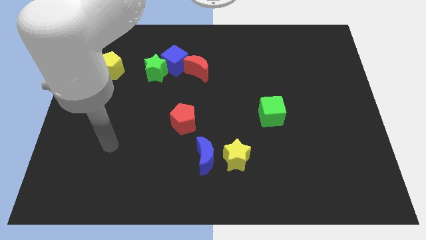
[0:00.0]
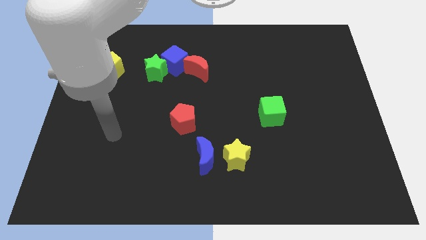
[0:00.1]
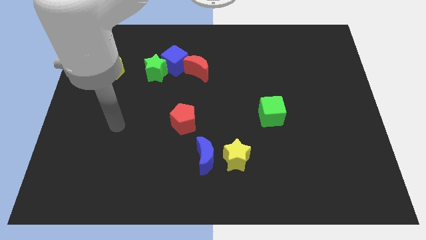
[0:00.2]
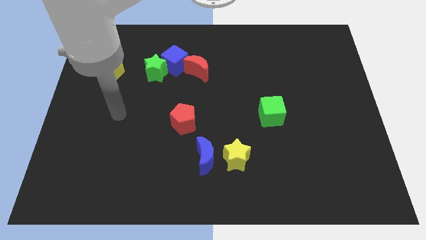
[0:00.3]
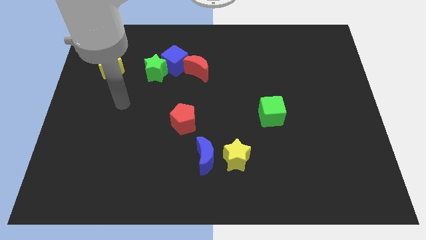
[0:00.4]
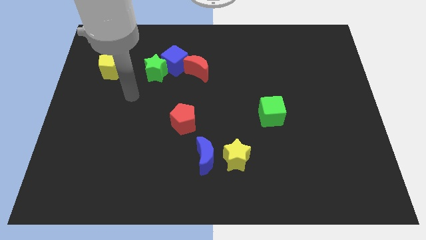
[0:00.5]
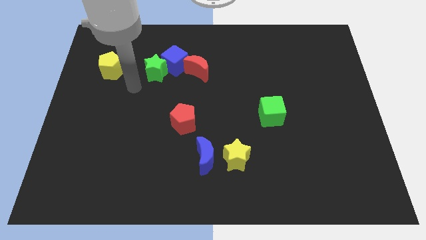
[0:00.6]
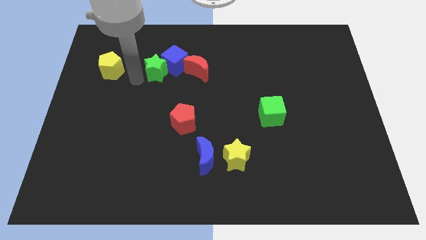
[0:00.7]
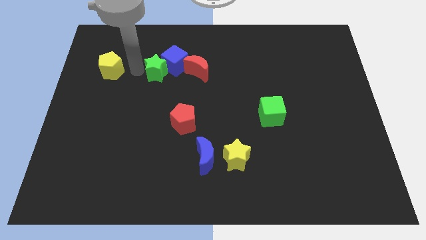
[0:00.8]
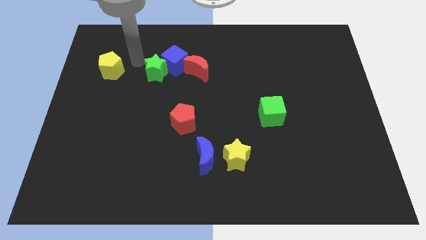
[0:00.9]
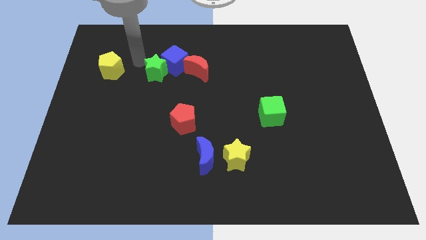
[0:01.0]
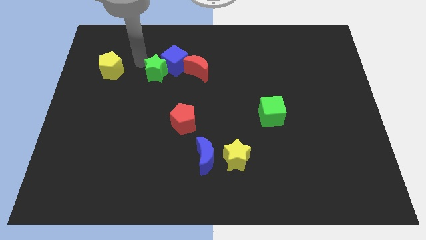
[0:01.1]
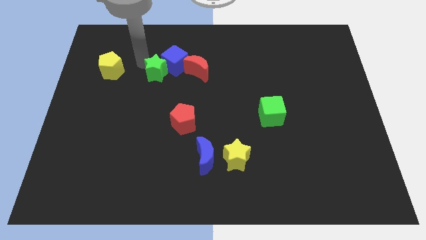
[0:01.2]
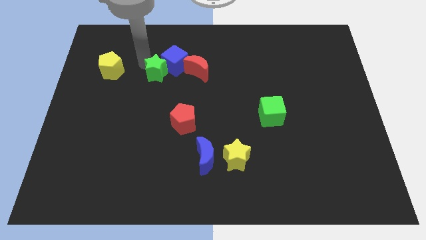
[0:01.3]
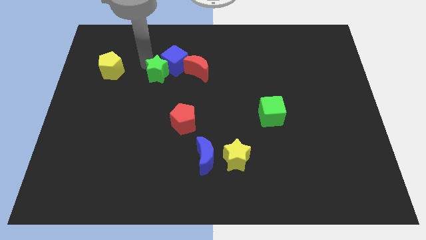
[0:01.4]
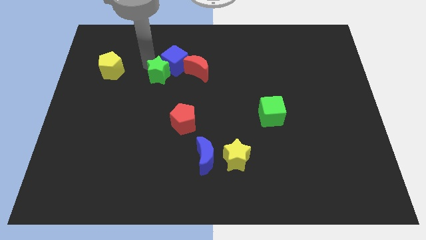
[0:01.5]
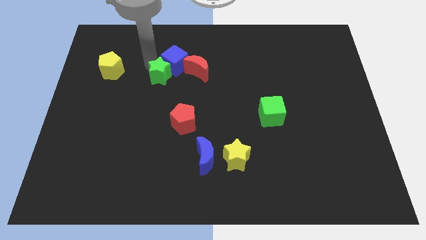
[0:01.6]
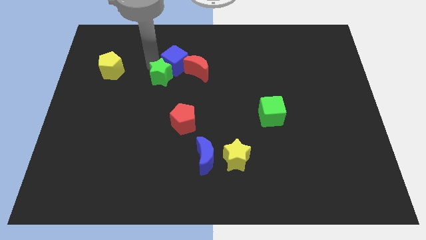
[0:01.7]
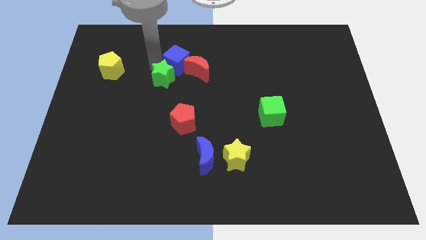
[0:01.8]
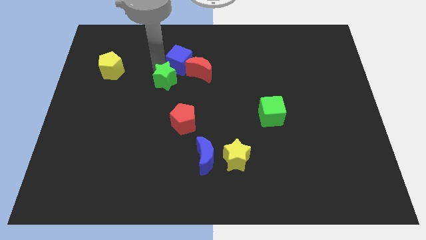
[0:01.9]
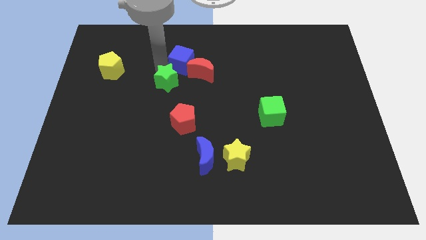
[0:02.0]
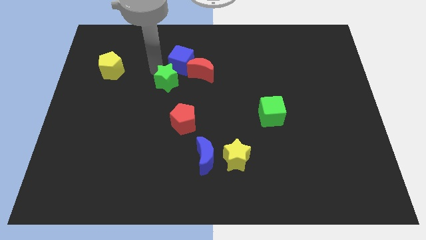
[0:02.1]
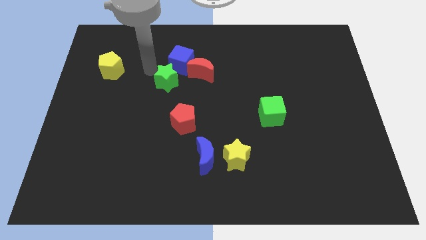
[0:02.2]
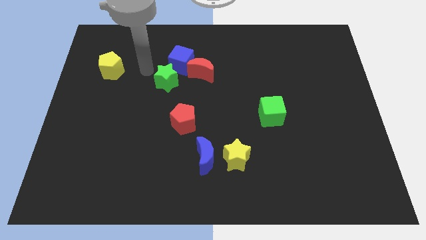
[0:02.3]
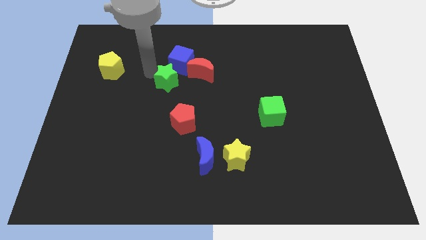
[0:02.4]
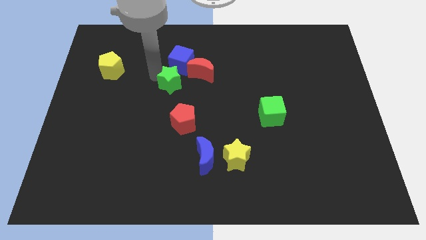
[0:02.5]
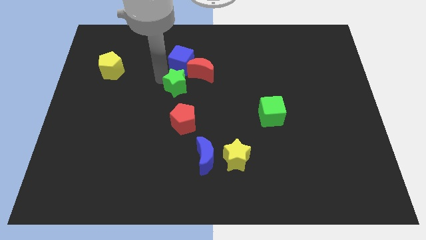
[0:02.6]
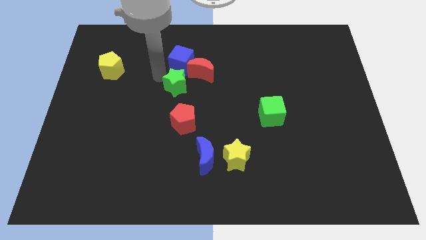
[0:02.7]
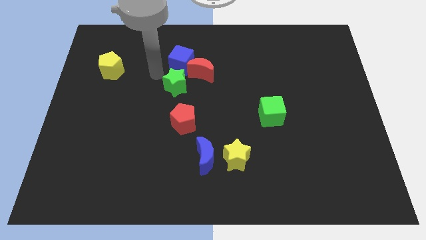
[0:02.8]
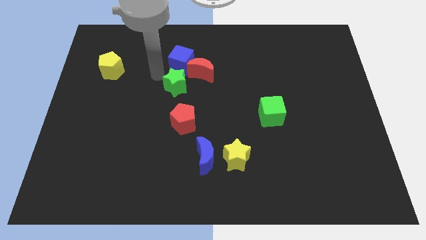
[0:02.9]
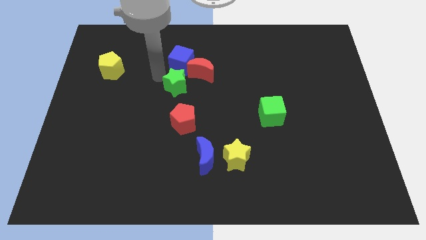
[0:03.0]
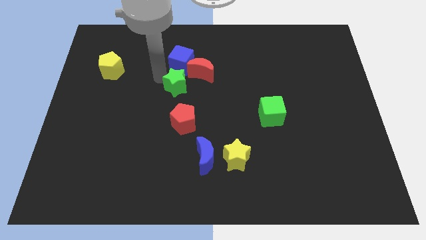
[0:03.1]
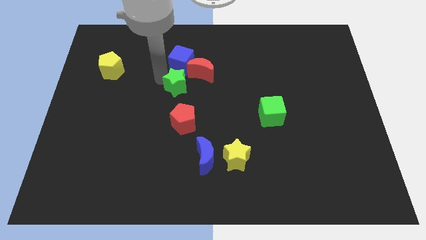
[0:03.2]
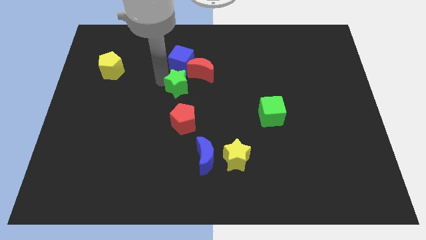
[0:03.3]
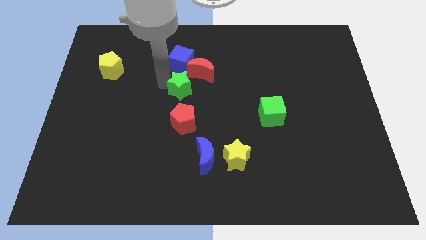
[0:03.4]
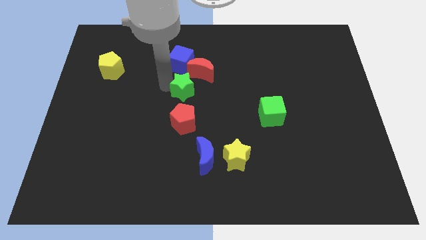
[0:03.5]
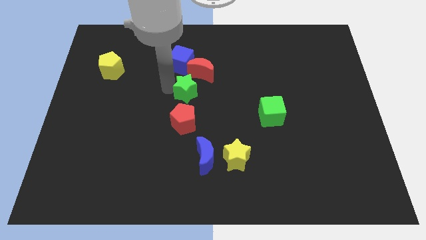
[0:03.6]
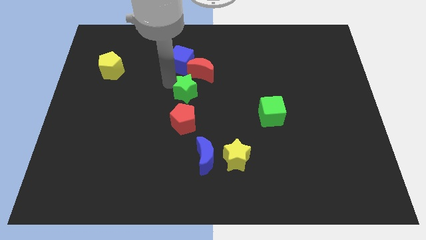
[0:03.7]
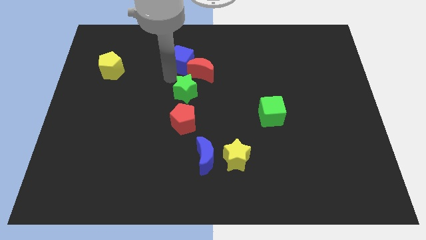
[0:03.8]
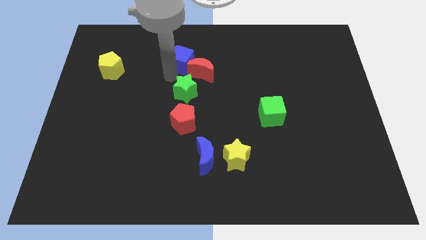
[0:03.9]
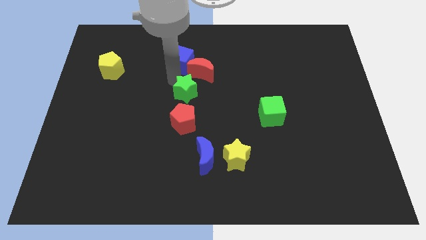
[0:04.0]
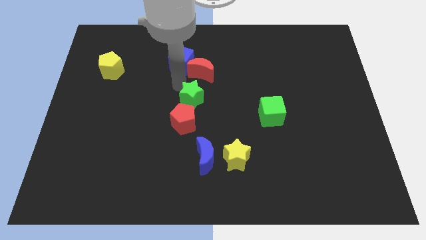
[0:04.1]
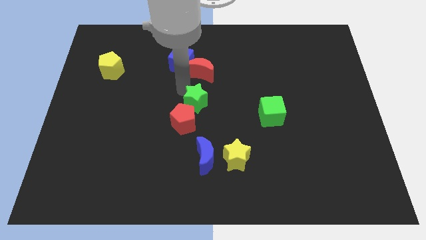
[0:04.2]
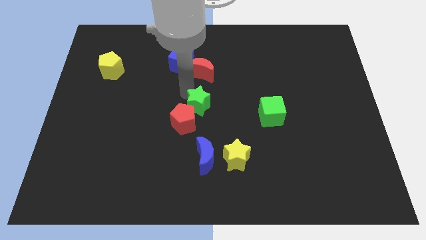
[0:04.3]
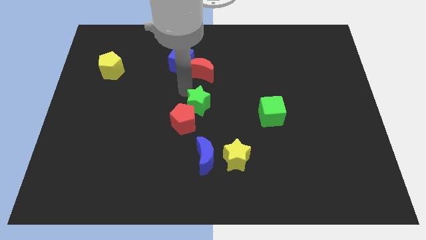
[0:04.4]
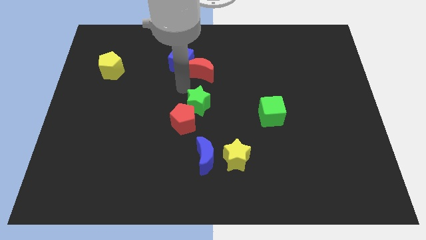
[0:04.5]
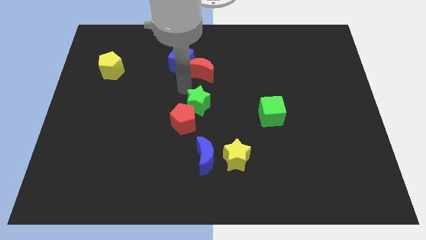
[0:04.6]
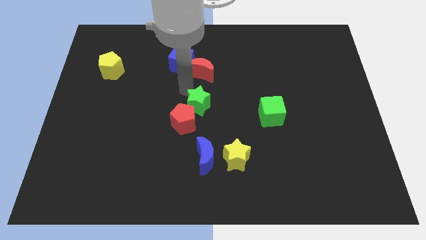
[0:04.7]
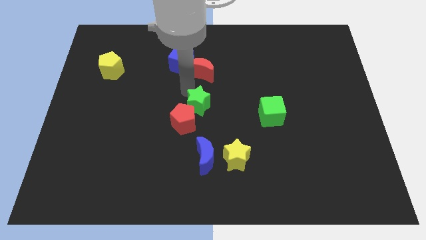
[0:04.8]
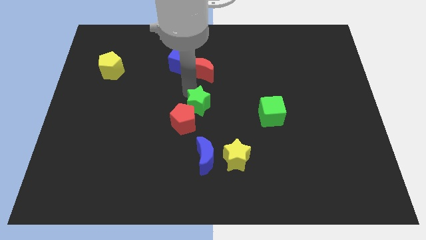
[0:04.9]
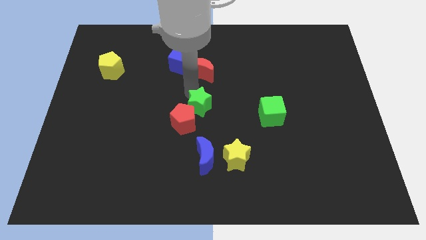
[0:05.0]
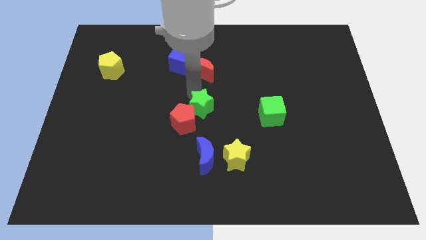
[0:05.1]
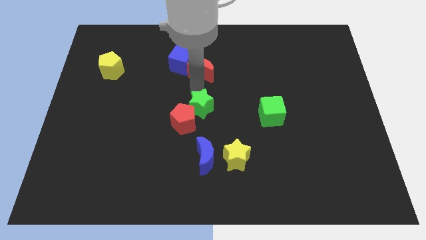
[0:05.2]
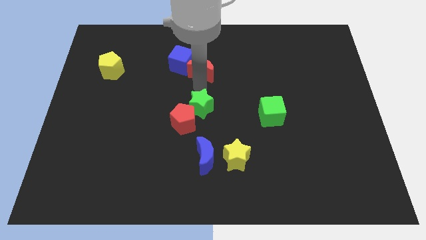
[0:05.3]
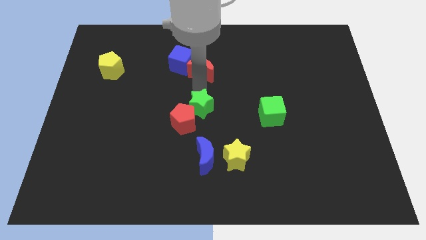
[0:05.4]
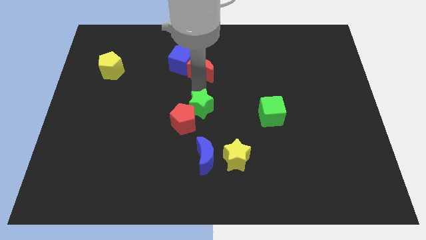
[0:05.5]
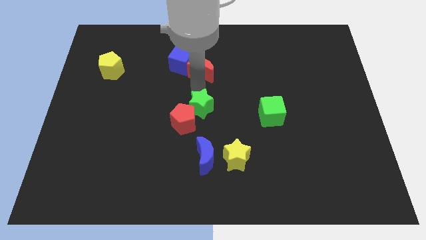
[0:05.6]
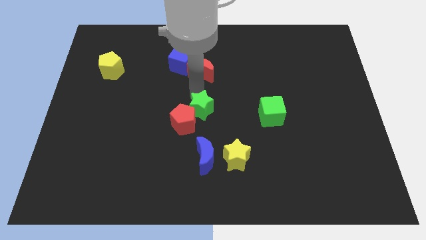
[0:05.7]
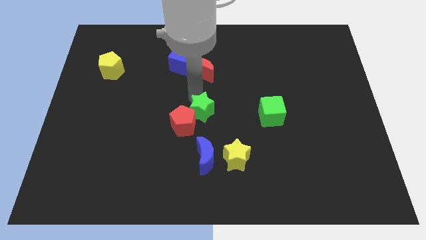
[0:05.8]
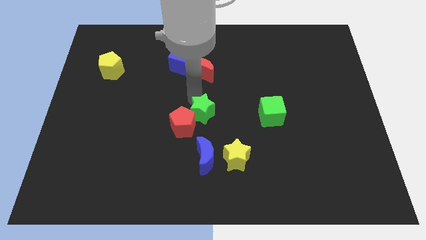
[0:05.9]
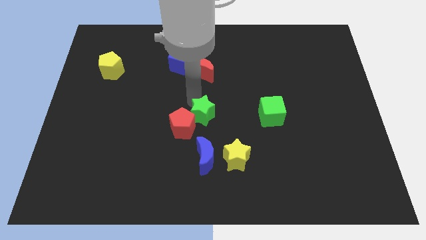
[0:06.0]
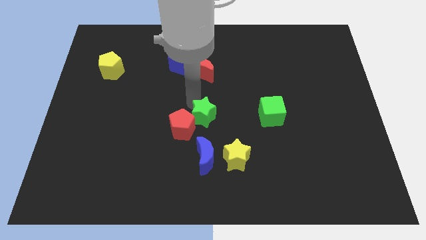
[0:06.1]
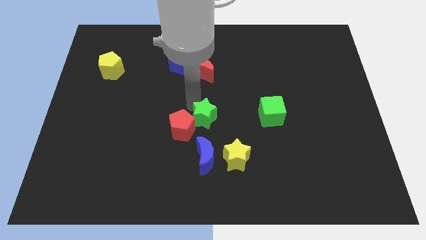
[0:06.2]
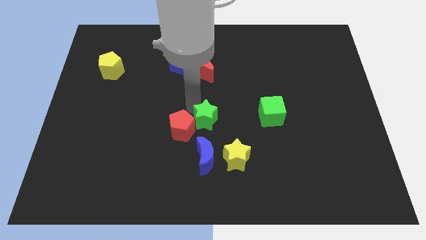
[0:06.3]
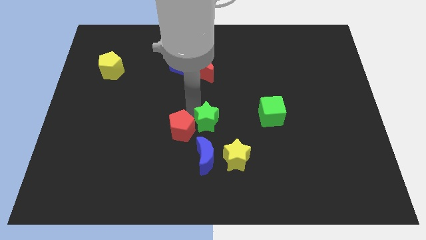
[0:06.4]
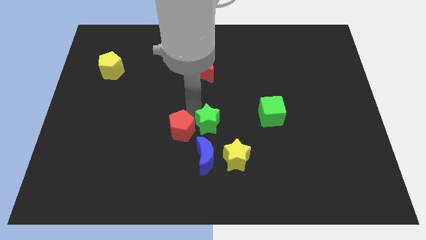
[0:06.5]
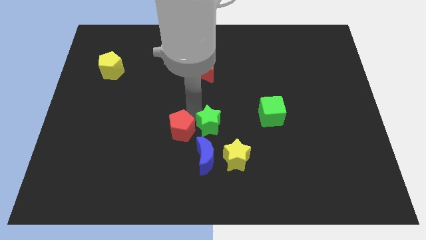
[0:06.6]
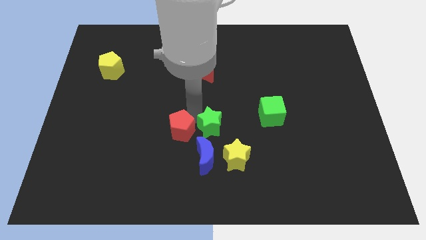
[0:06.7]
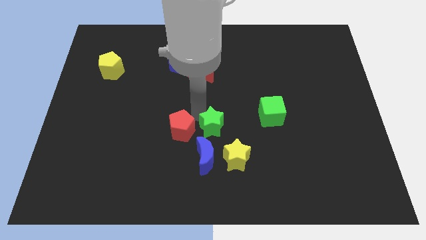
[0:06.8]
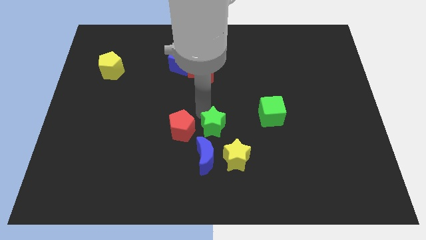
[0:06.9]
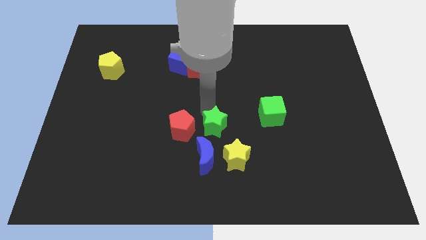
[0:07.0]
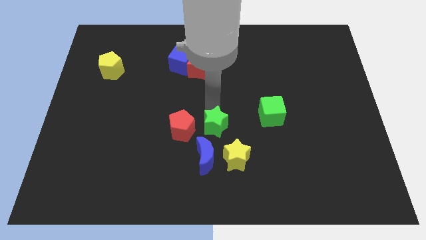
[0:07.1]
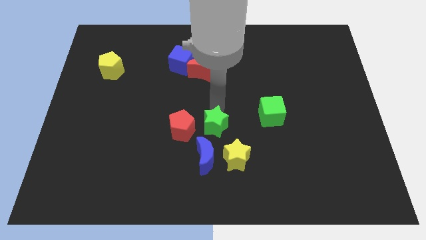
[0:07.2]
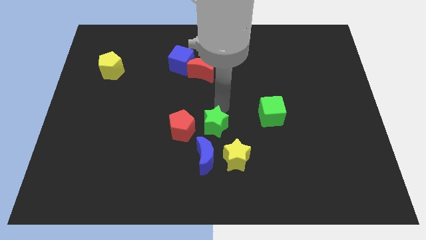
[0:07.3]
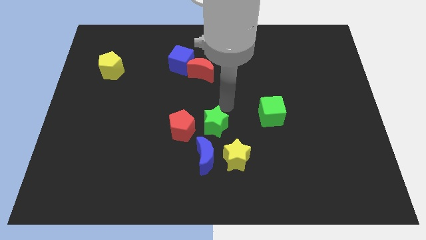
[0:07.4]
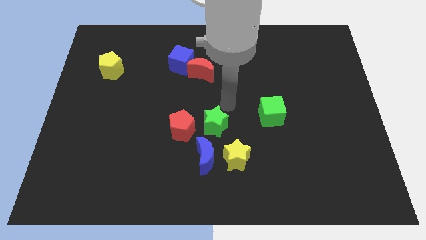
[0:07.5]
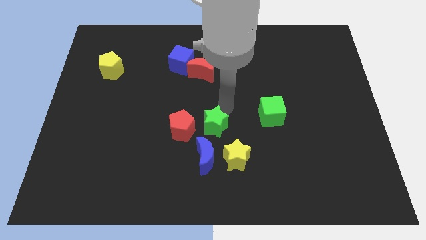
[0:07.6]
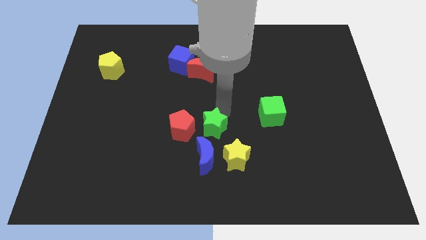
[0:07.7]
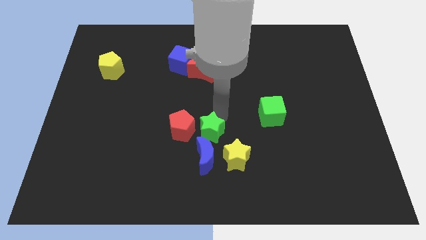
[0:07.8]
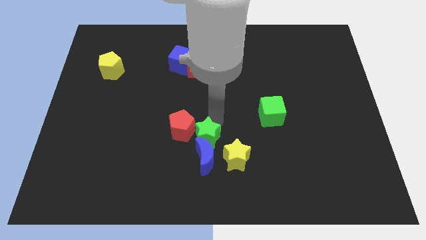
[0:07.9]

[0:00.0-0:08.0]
put the green star next to the blue moon
